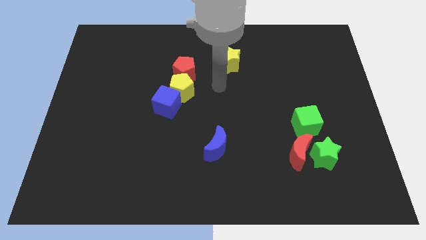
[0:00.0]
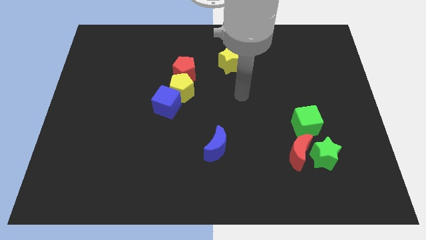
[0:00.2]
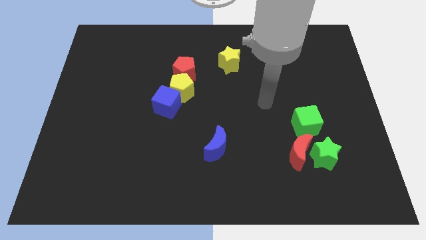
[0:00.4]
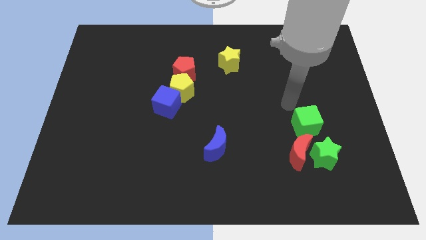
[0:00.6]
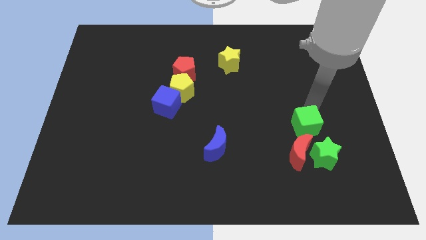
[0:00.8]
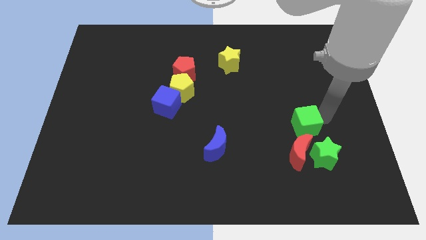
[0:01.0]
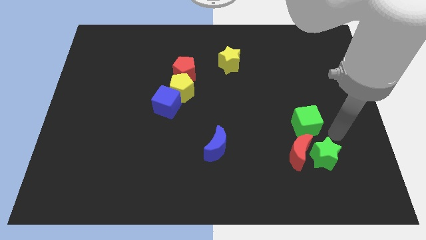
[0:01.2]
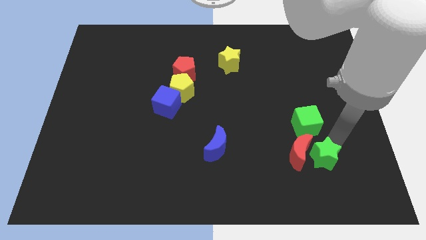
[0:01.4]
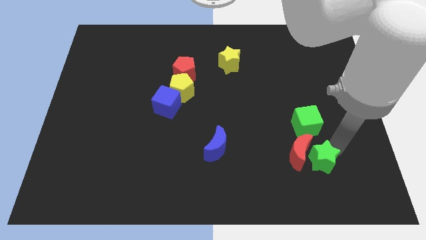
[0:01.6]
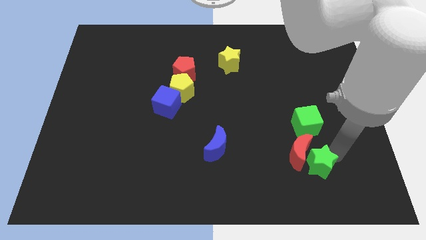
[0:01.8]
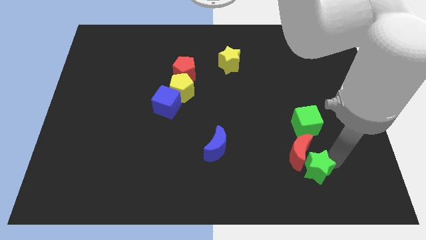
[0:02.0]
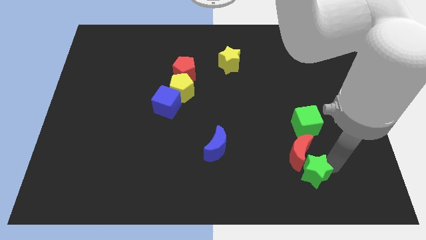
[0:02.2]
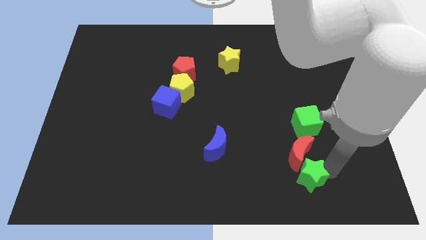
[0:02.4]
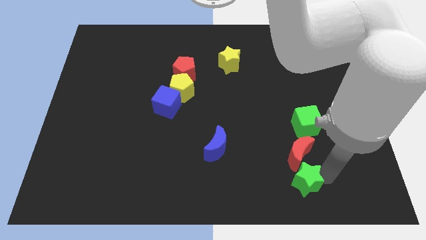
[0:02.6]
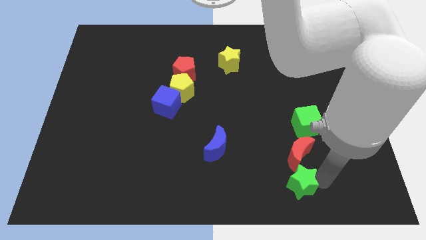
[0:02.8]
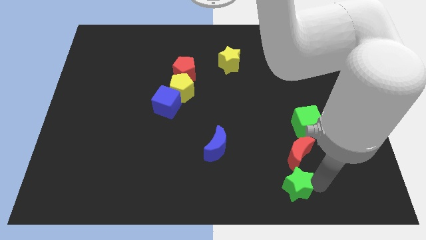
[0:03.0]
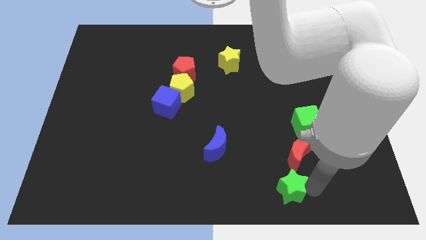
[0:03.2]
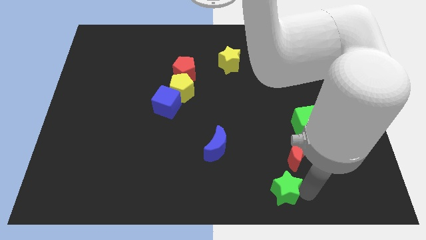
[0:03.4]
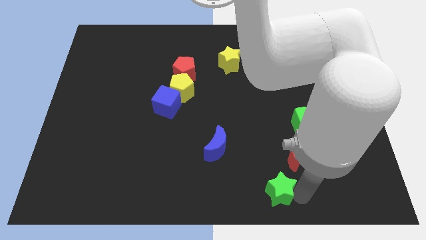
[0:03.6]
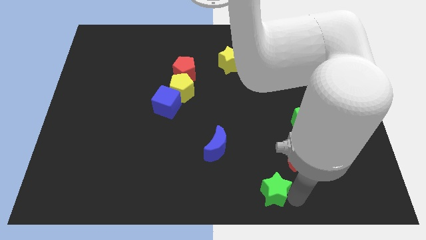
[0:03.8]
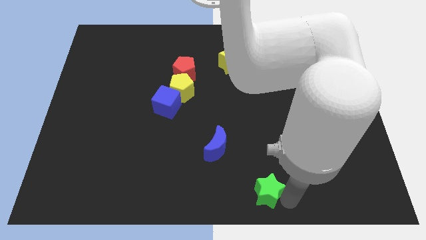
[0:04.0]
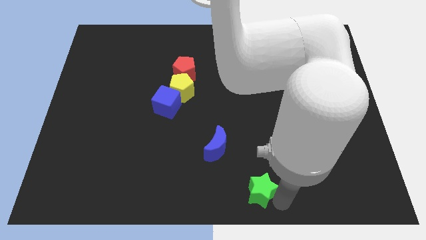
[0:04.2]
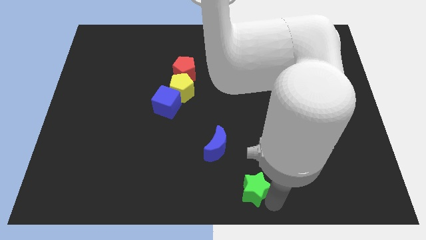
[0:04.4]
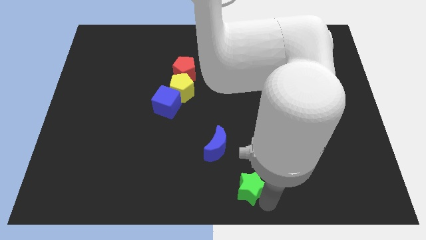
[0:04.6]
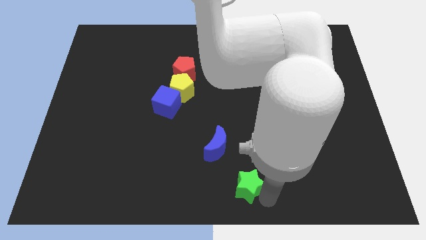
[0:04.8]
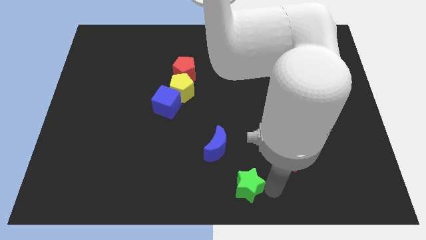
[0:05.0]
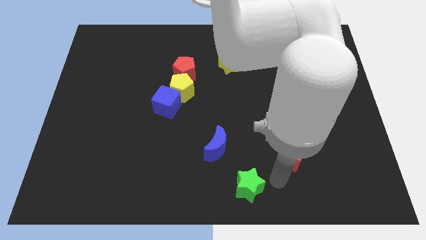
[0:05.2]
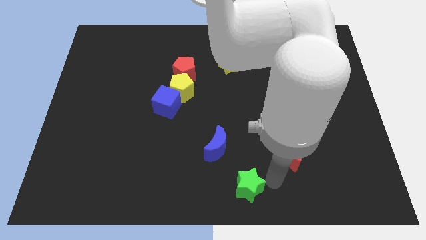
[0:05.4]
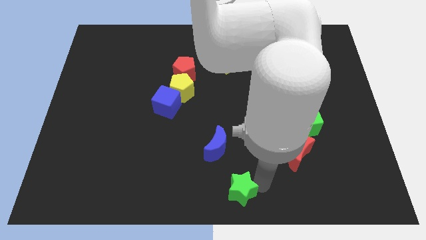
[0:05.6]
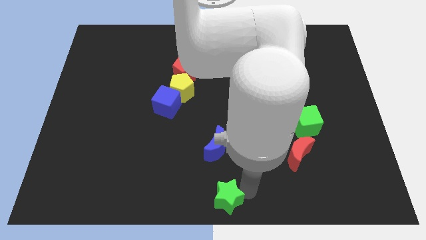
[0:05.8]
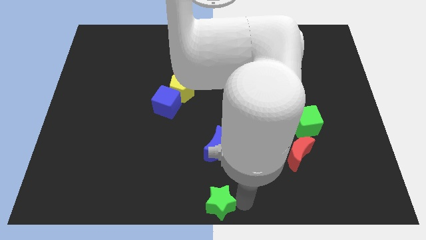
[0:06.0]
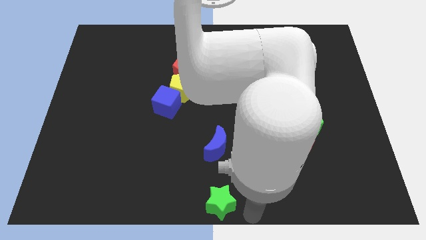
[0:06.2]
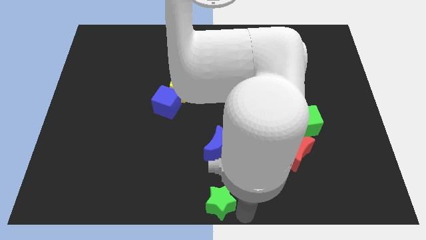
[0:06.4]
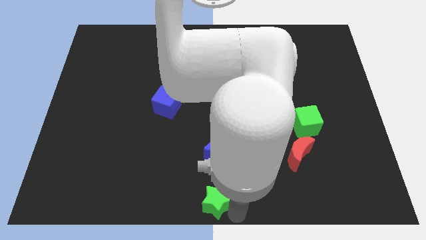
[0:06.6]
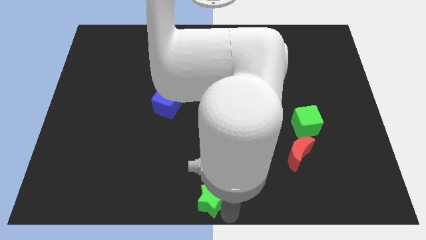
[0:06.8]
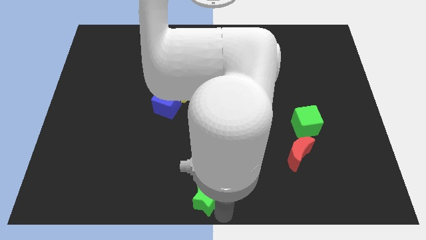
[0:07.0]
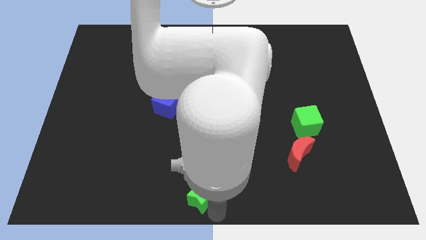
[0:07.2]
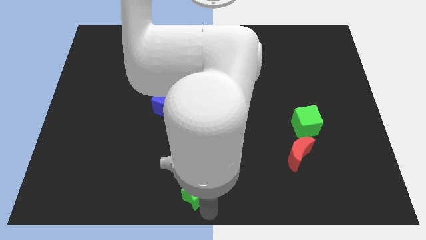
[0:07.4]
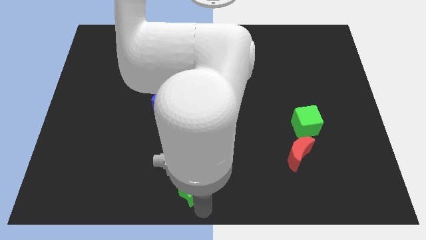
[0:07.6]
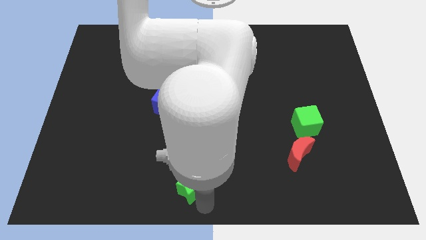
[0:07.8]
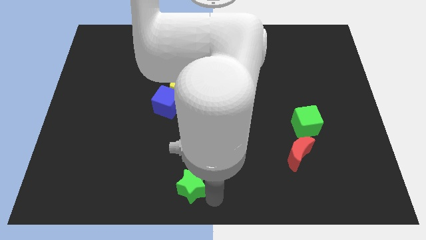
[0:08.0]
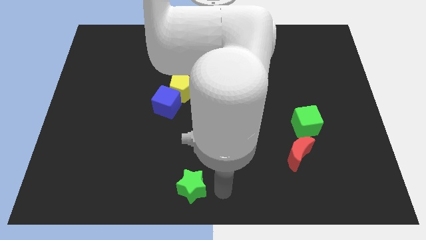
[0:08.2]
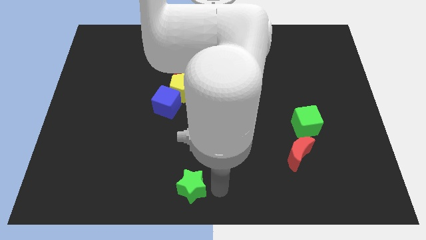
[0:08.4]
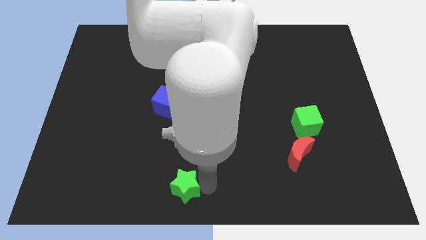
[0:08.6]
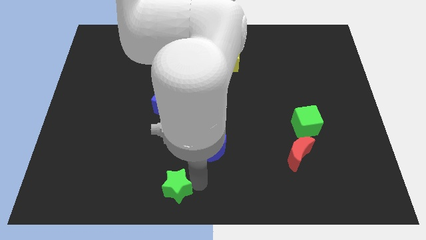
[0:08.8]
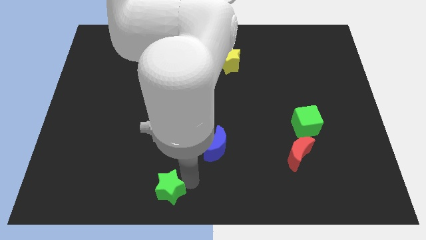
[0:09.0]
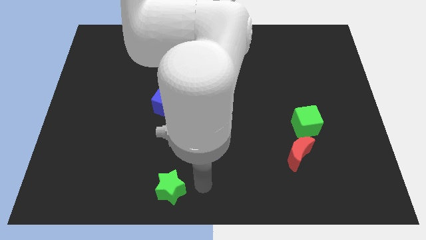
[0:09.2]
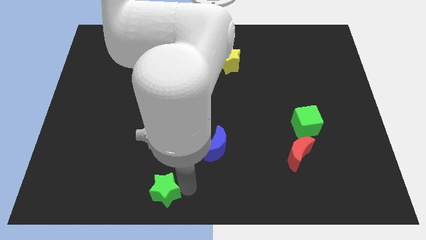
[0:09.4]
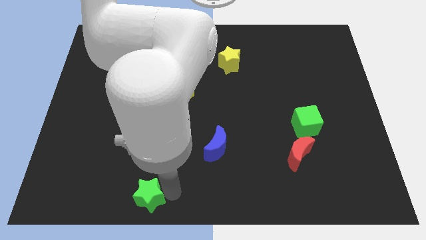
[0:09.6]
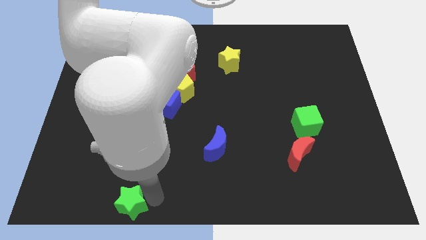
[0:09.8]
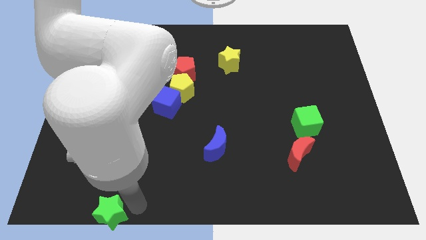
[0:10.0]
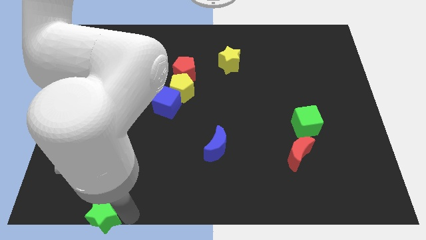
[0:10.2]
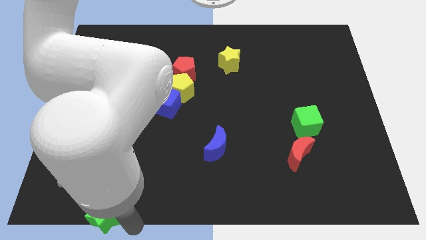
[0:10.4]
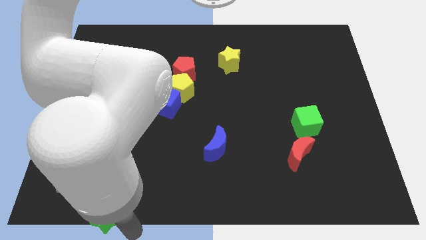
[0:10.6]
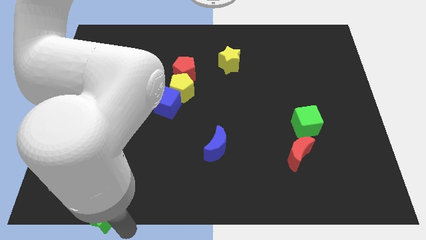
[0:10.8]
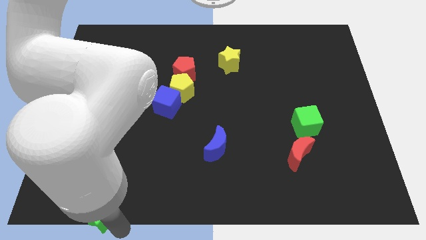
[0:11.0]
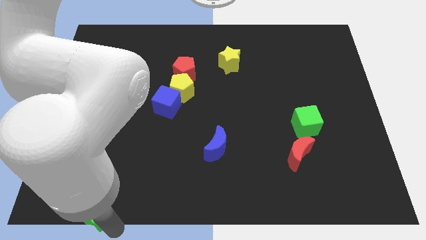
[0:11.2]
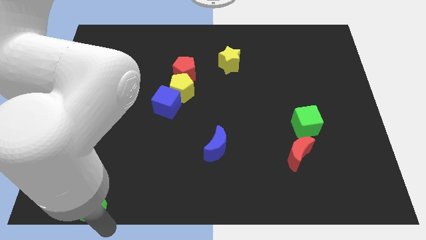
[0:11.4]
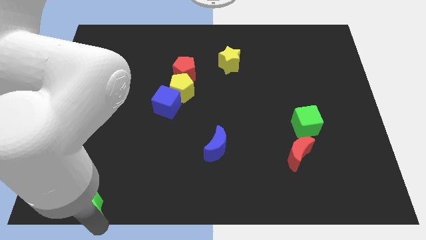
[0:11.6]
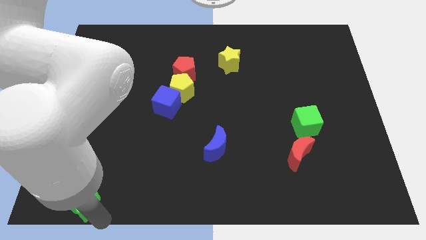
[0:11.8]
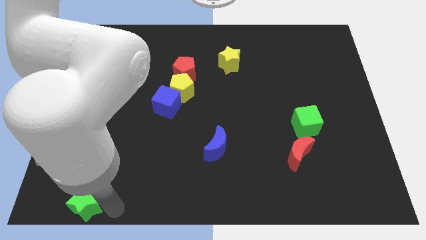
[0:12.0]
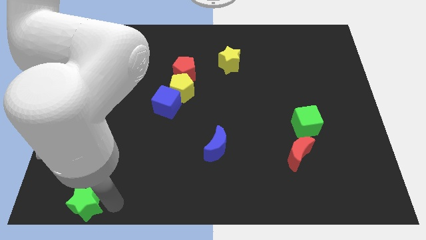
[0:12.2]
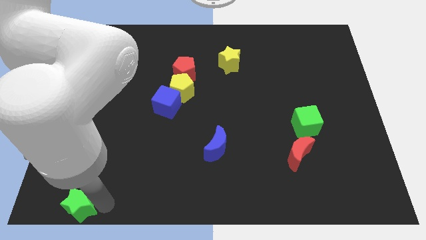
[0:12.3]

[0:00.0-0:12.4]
slide the green star to the bottom left corner

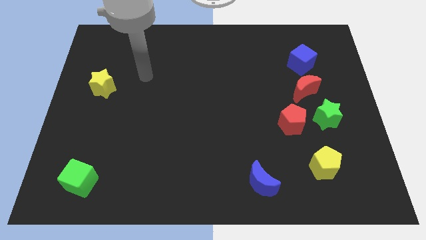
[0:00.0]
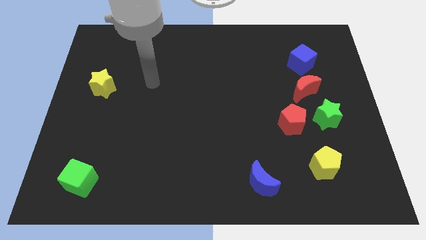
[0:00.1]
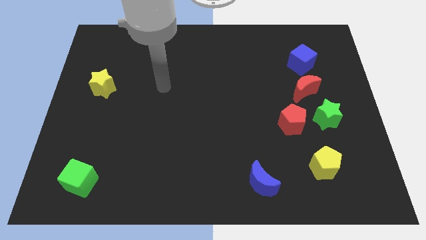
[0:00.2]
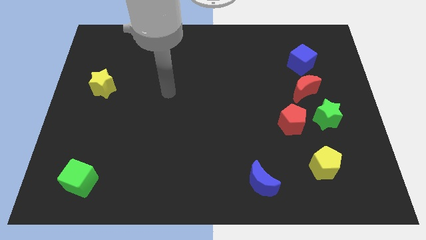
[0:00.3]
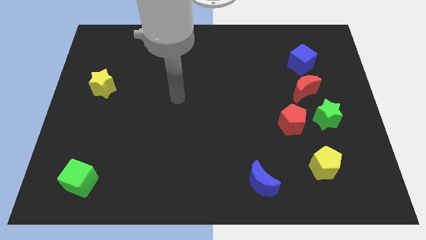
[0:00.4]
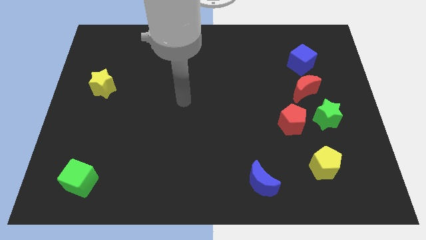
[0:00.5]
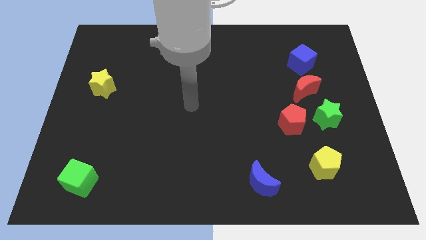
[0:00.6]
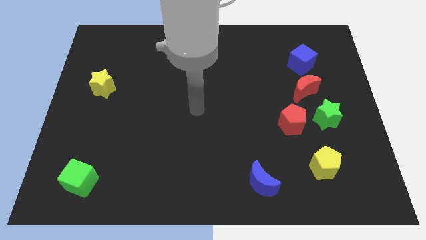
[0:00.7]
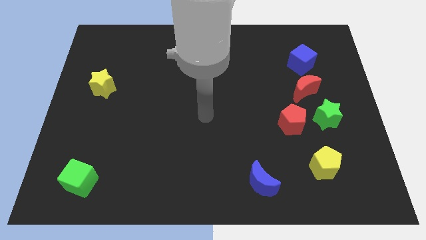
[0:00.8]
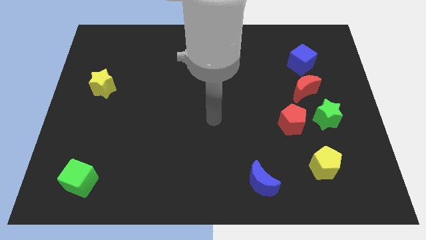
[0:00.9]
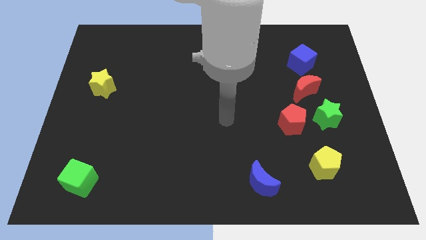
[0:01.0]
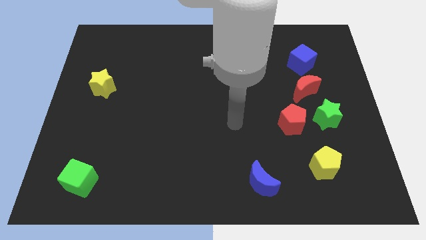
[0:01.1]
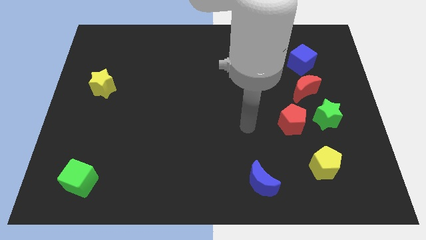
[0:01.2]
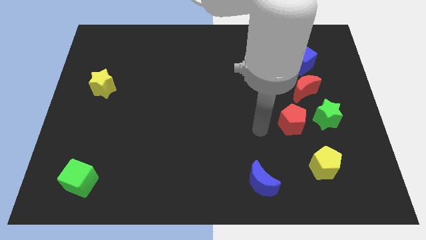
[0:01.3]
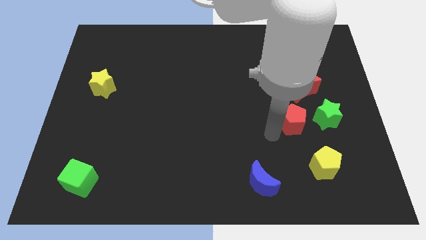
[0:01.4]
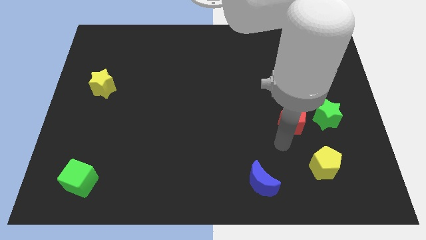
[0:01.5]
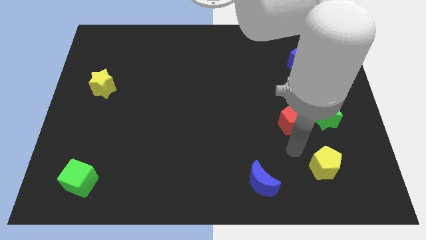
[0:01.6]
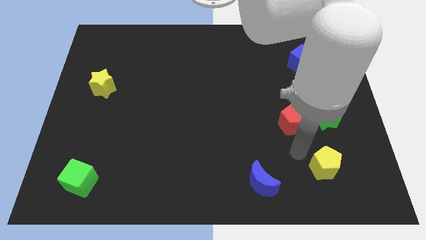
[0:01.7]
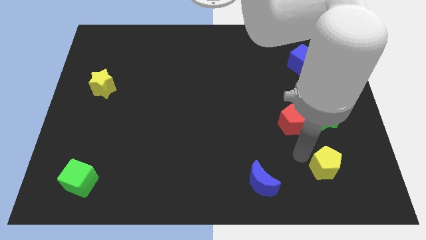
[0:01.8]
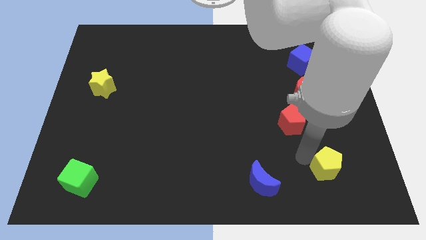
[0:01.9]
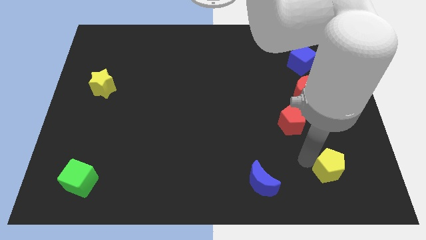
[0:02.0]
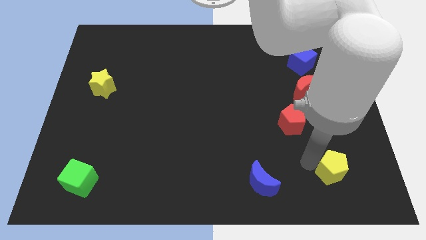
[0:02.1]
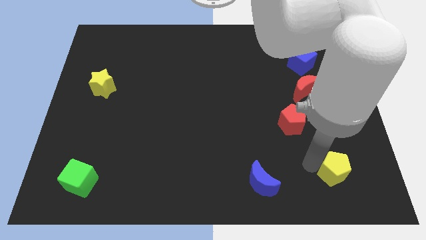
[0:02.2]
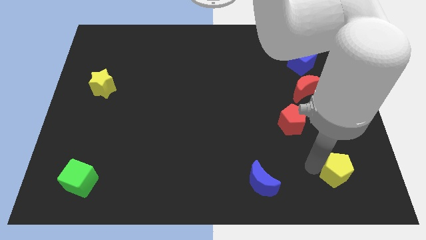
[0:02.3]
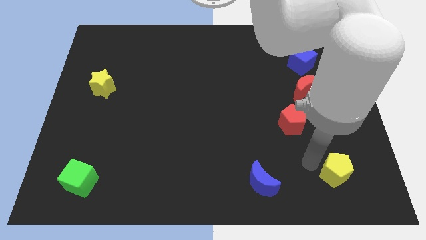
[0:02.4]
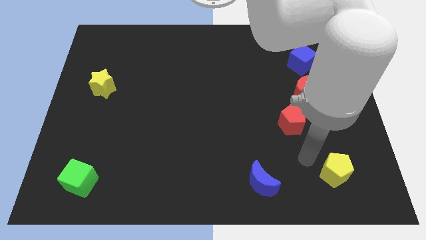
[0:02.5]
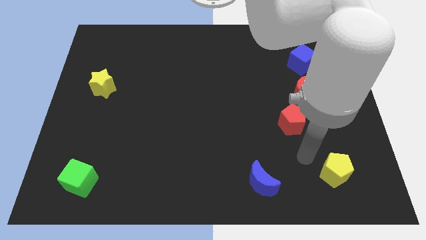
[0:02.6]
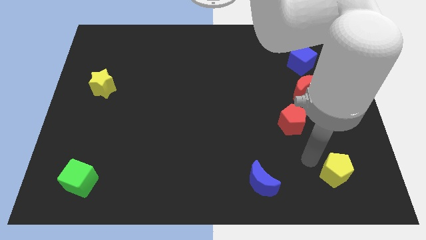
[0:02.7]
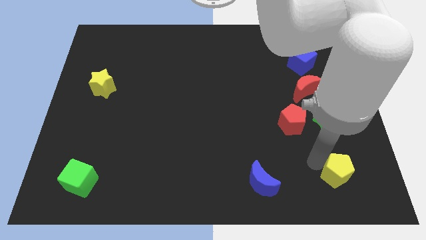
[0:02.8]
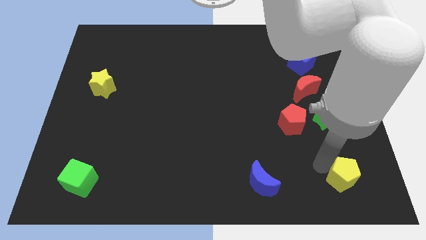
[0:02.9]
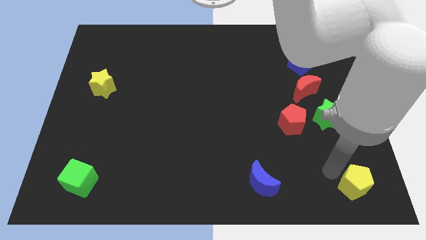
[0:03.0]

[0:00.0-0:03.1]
move the yellow pentagon to the lower right corner
